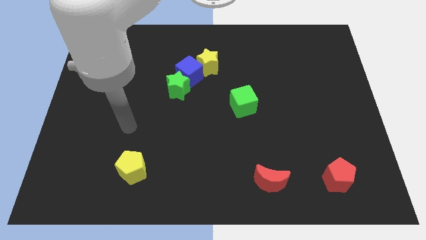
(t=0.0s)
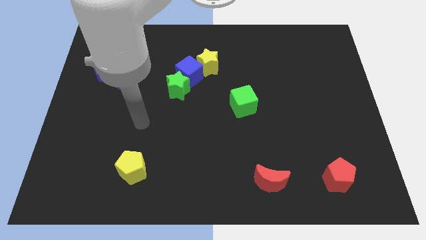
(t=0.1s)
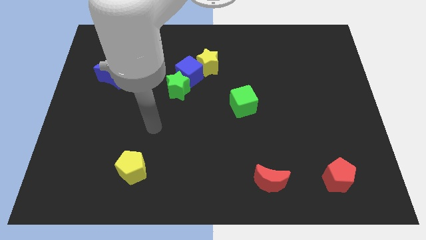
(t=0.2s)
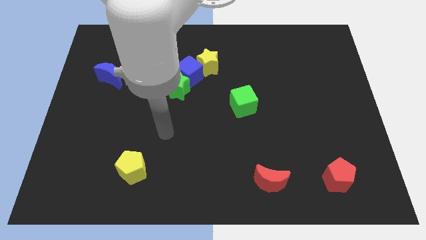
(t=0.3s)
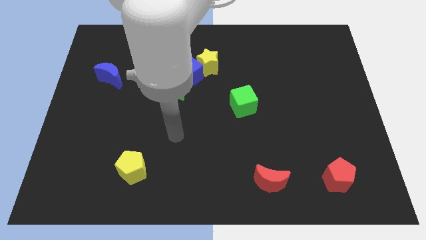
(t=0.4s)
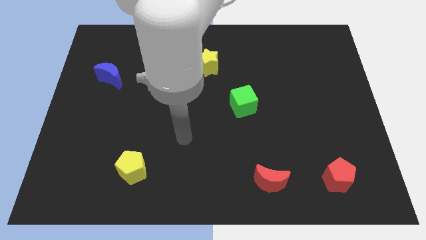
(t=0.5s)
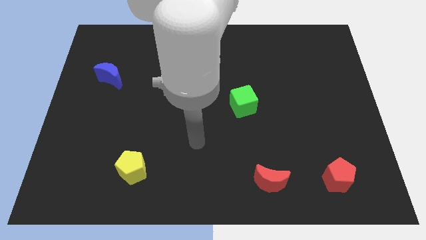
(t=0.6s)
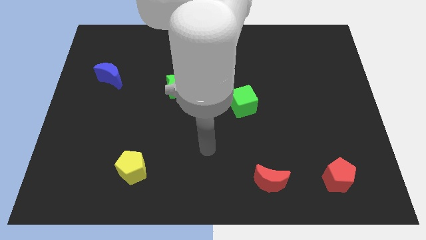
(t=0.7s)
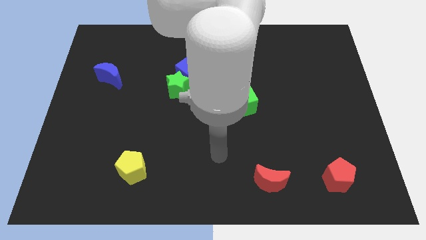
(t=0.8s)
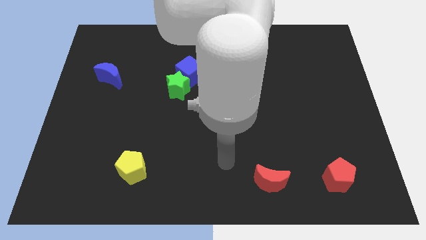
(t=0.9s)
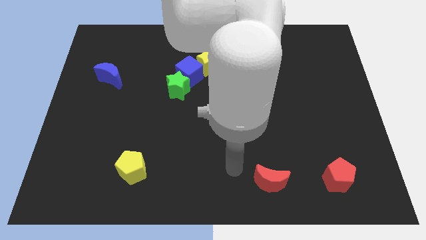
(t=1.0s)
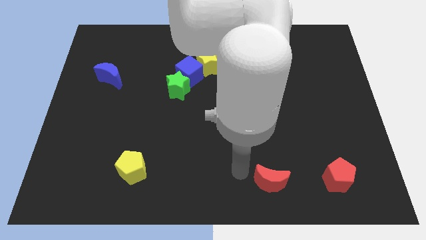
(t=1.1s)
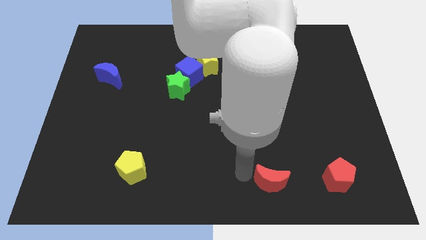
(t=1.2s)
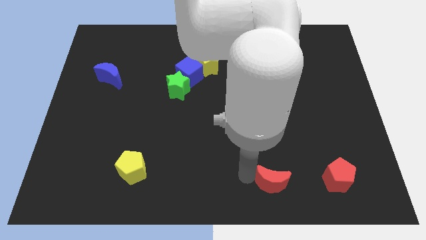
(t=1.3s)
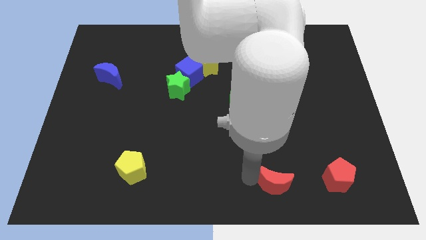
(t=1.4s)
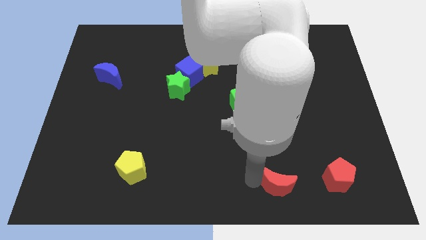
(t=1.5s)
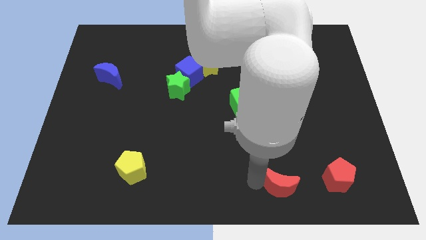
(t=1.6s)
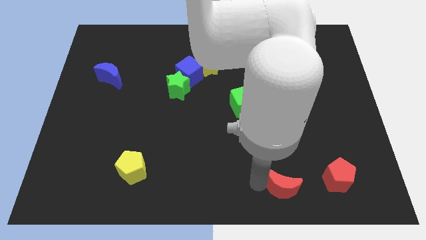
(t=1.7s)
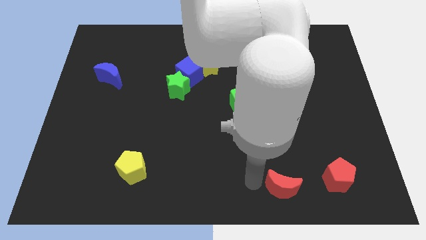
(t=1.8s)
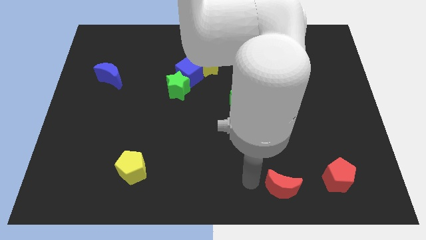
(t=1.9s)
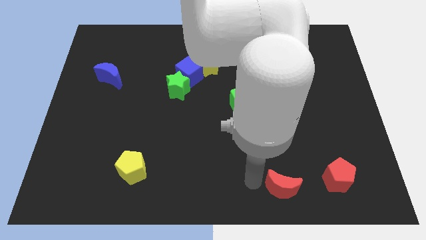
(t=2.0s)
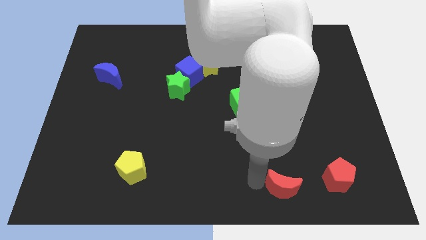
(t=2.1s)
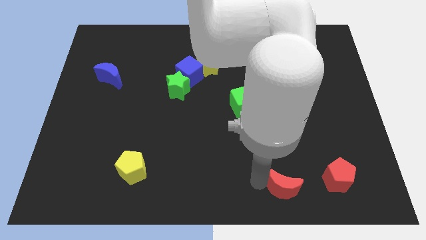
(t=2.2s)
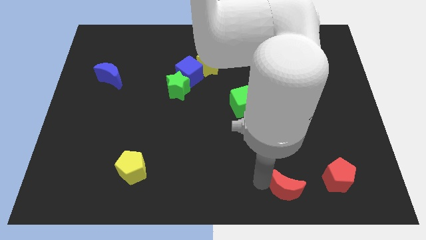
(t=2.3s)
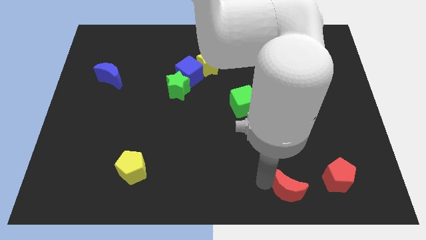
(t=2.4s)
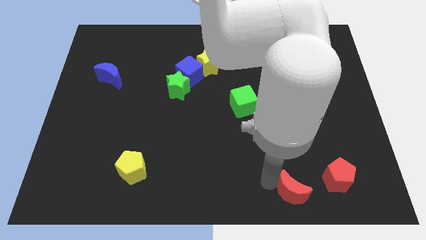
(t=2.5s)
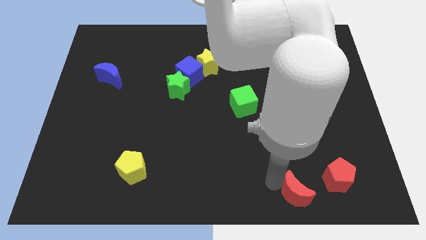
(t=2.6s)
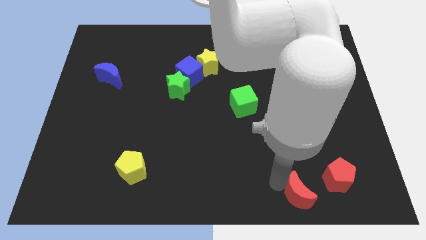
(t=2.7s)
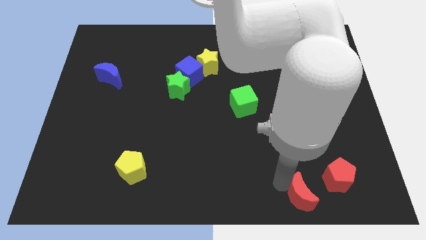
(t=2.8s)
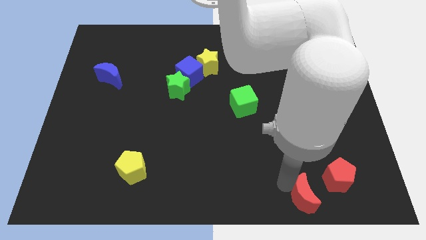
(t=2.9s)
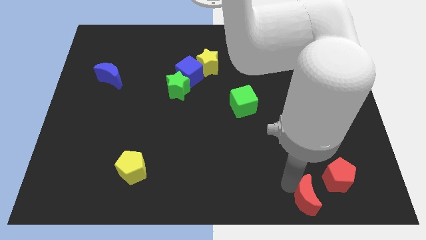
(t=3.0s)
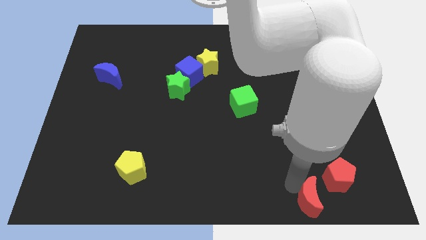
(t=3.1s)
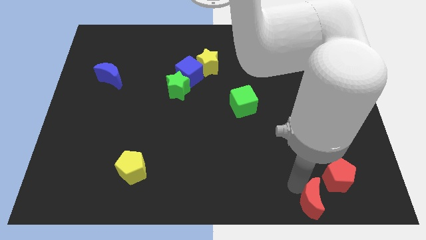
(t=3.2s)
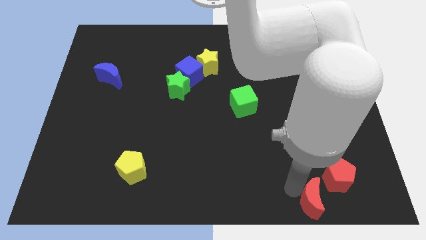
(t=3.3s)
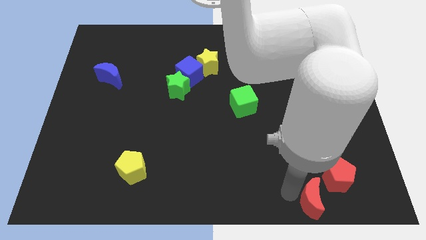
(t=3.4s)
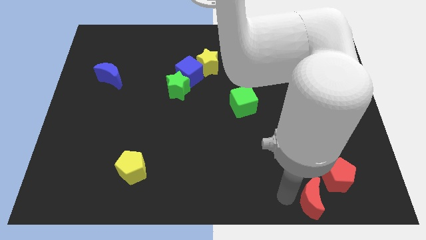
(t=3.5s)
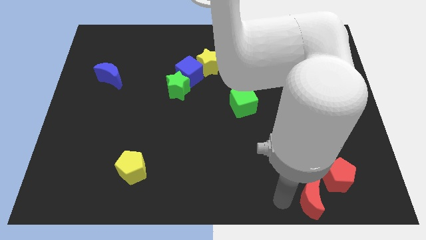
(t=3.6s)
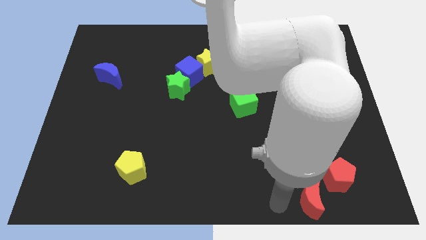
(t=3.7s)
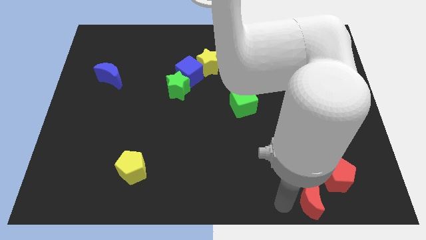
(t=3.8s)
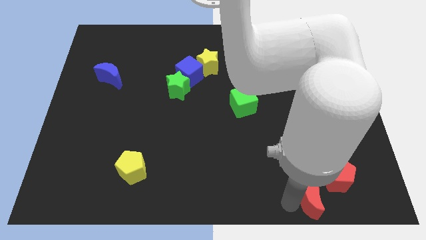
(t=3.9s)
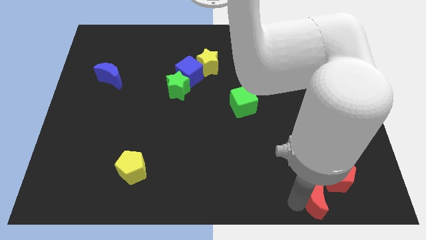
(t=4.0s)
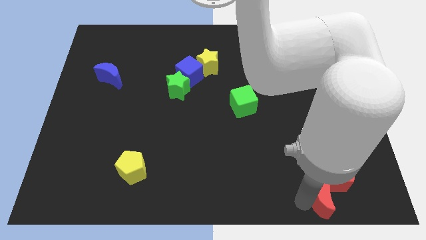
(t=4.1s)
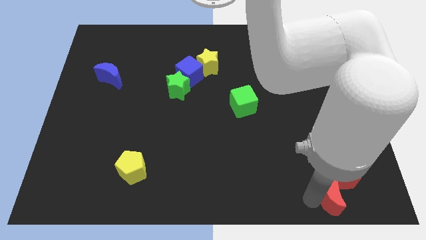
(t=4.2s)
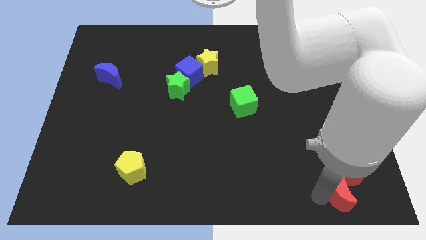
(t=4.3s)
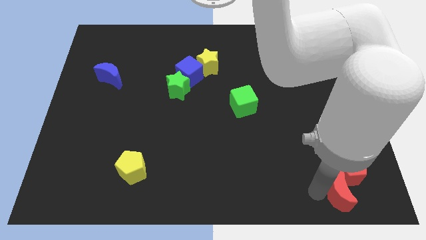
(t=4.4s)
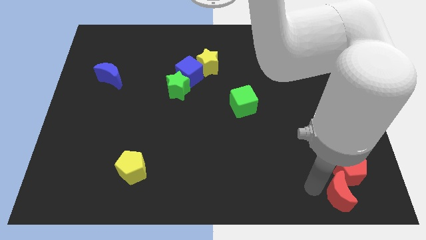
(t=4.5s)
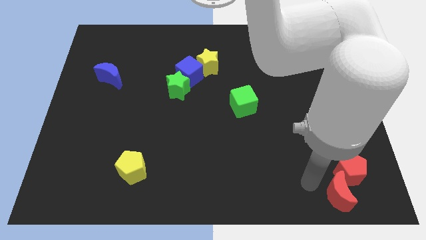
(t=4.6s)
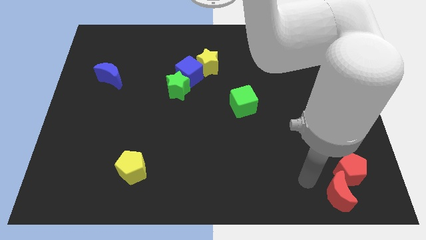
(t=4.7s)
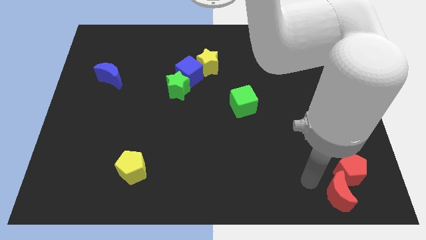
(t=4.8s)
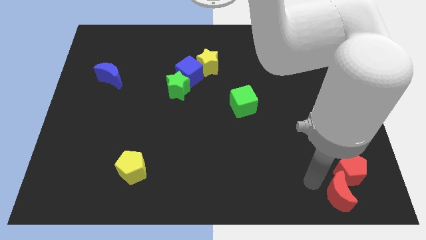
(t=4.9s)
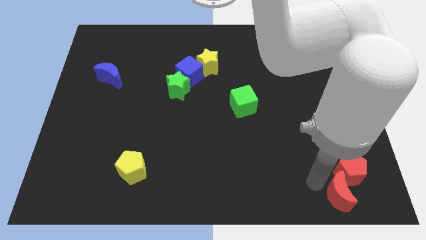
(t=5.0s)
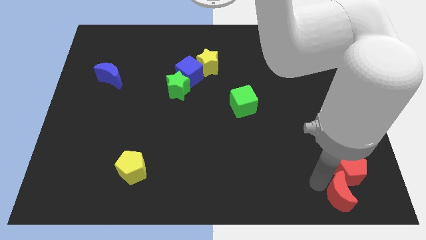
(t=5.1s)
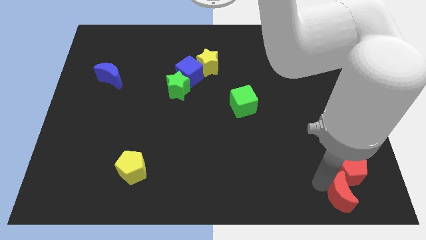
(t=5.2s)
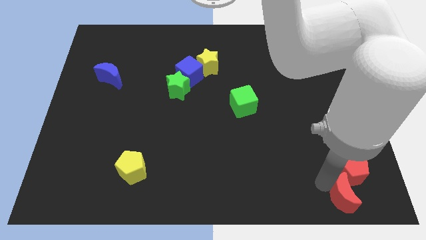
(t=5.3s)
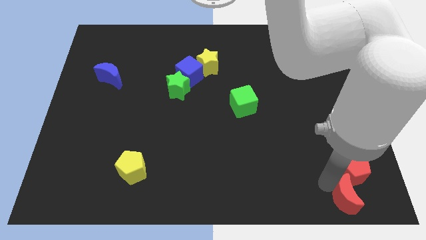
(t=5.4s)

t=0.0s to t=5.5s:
put the red moon to the bottom right

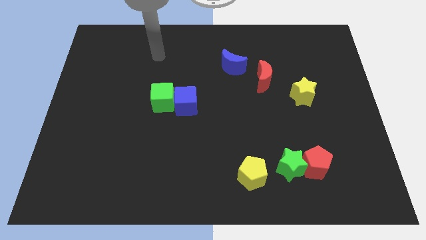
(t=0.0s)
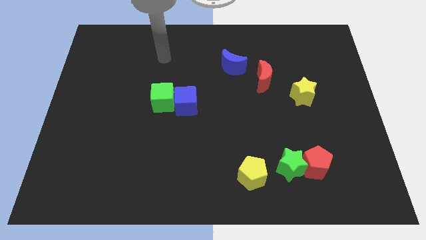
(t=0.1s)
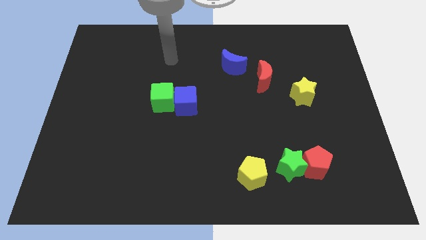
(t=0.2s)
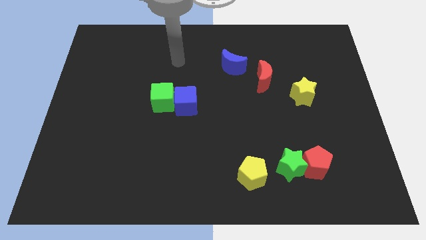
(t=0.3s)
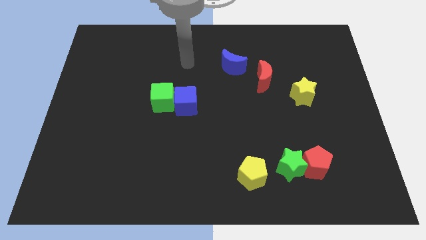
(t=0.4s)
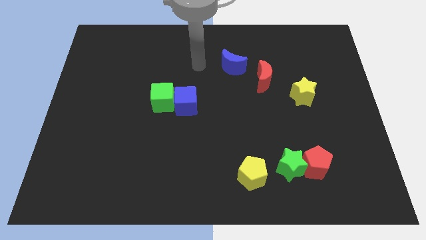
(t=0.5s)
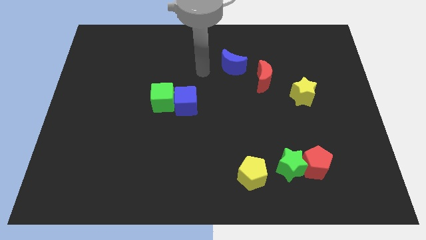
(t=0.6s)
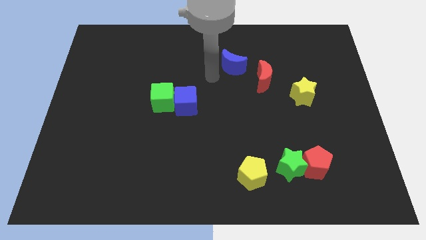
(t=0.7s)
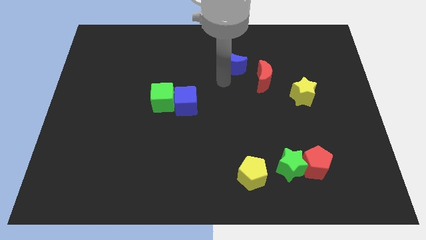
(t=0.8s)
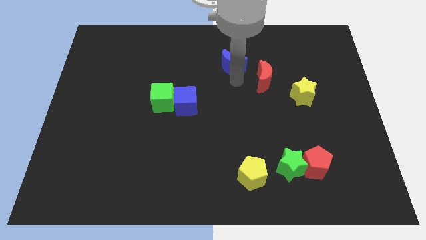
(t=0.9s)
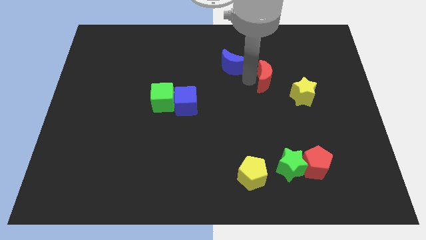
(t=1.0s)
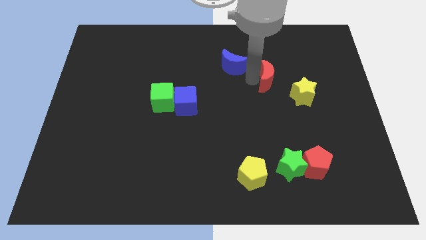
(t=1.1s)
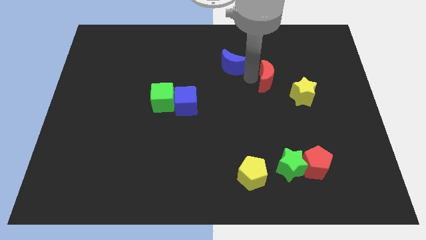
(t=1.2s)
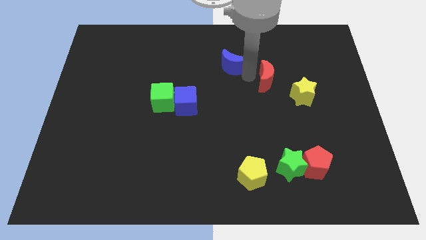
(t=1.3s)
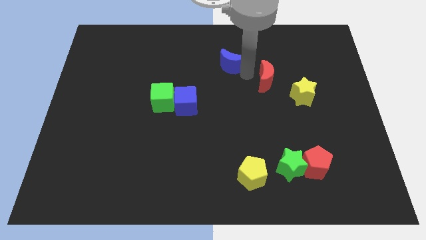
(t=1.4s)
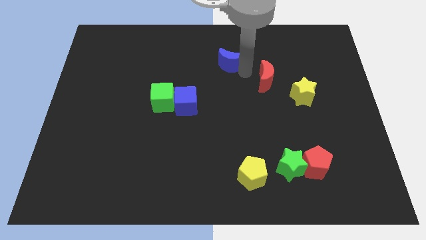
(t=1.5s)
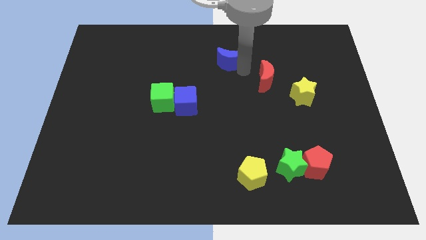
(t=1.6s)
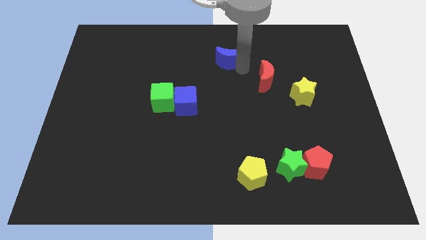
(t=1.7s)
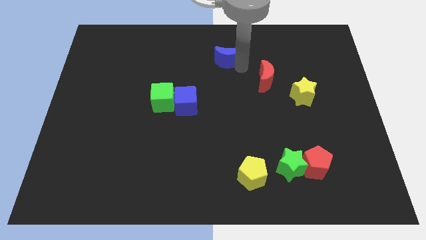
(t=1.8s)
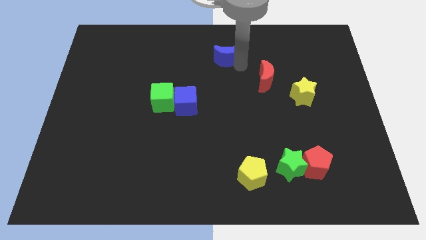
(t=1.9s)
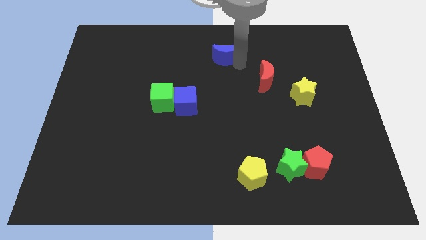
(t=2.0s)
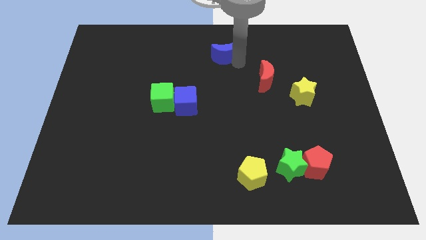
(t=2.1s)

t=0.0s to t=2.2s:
move the blue moon to the top side
